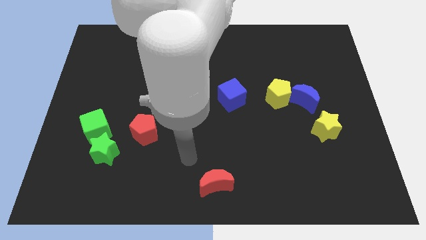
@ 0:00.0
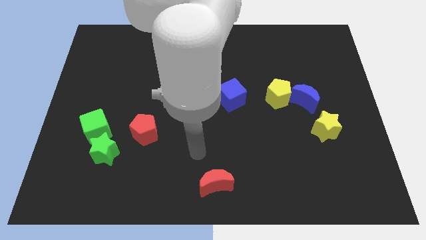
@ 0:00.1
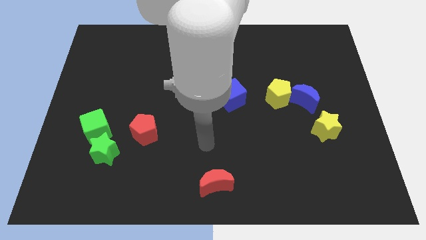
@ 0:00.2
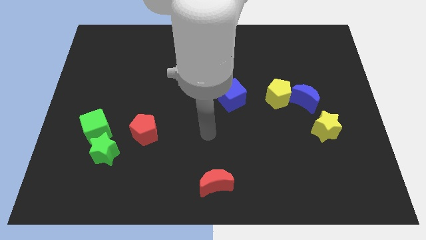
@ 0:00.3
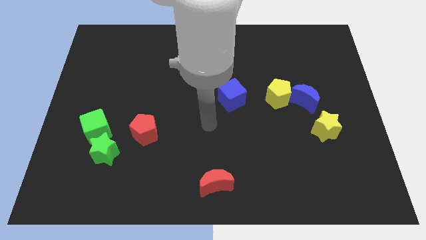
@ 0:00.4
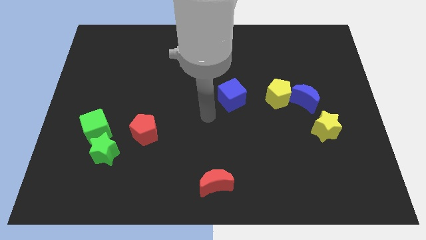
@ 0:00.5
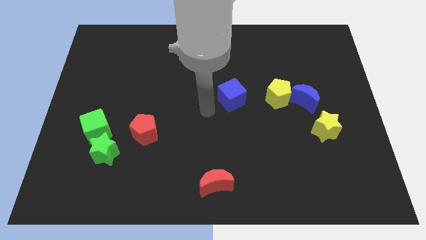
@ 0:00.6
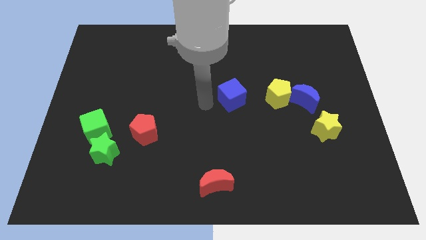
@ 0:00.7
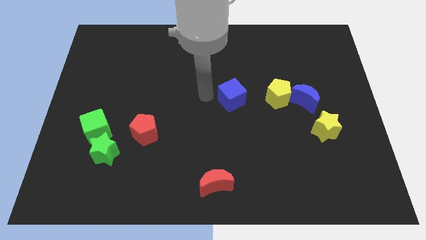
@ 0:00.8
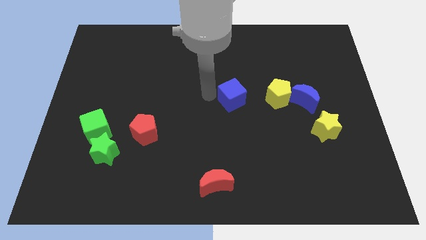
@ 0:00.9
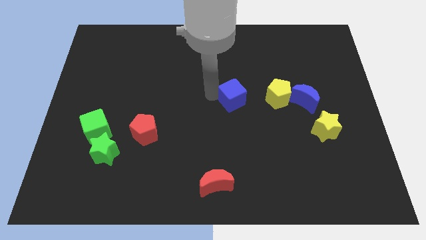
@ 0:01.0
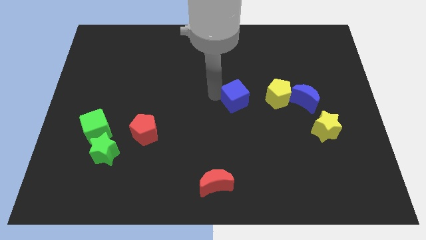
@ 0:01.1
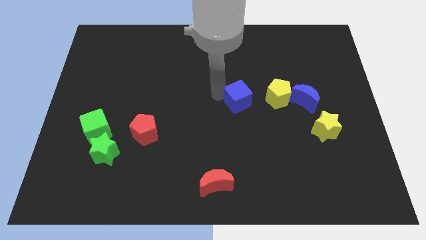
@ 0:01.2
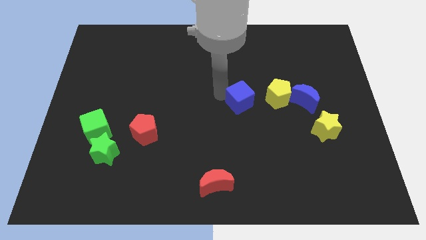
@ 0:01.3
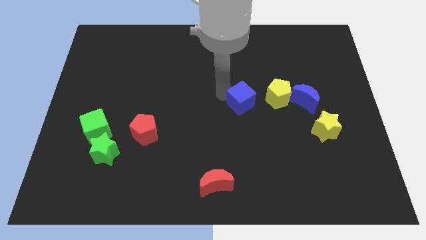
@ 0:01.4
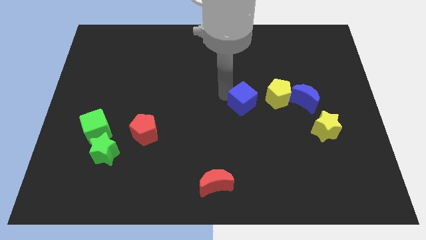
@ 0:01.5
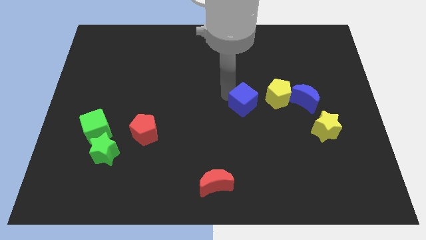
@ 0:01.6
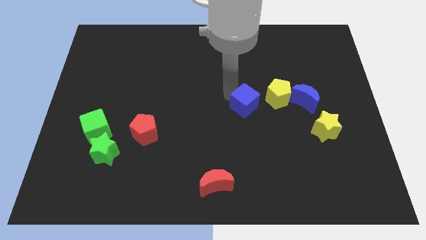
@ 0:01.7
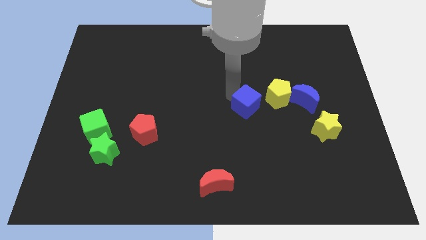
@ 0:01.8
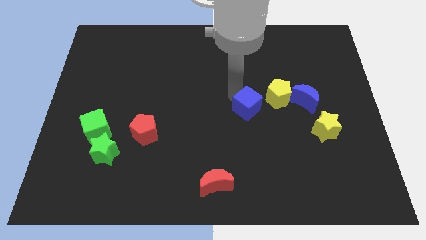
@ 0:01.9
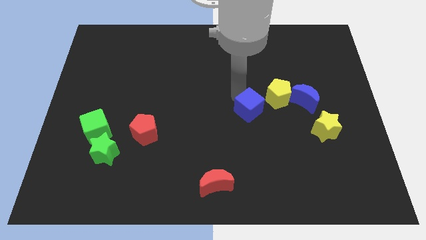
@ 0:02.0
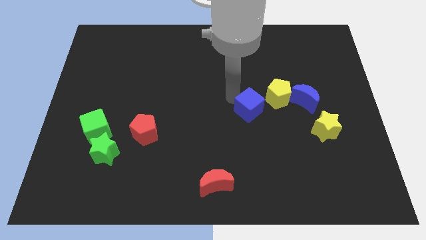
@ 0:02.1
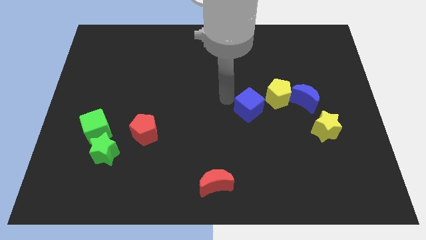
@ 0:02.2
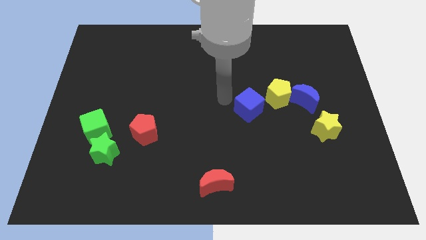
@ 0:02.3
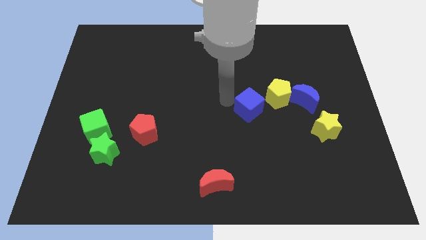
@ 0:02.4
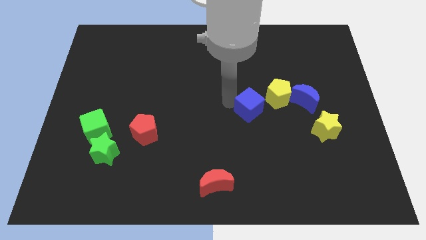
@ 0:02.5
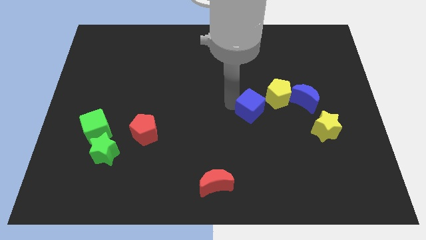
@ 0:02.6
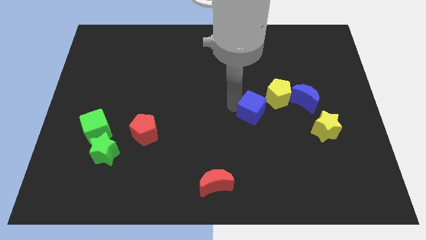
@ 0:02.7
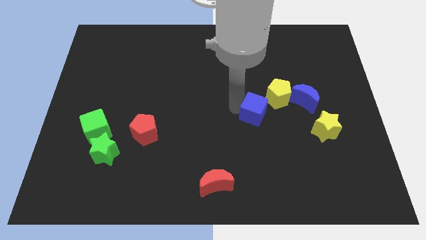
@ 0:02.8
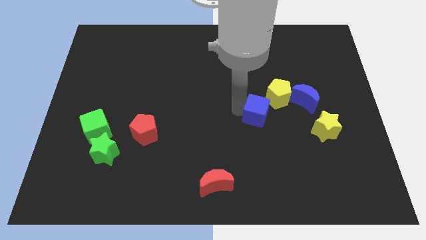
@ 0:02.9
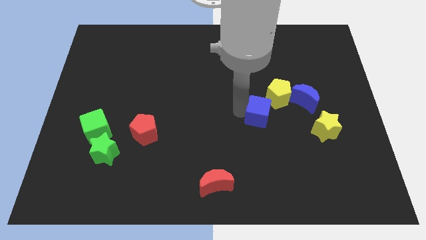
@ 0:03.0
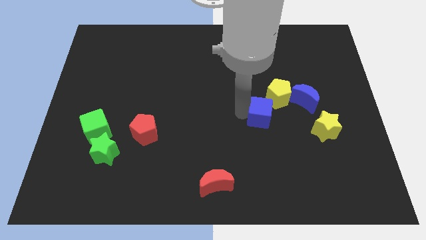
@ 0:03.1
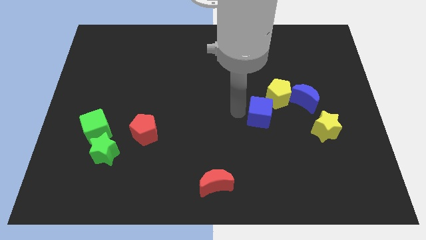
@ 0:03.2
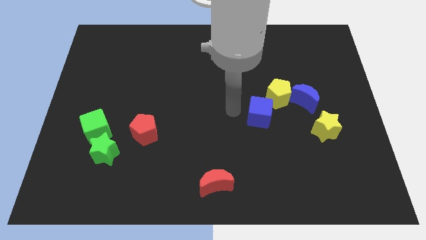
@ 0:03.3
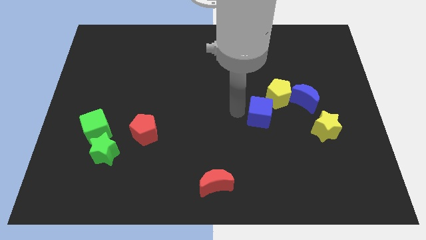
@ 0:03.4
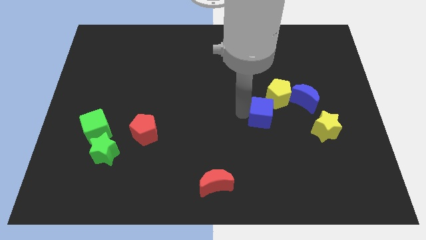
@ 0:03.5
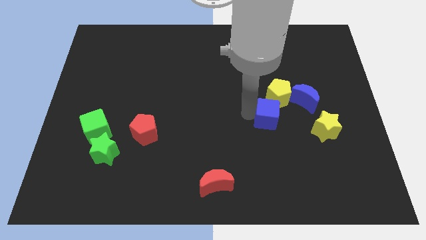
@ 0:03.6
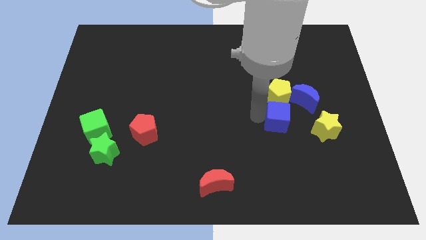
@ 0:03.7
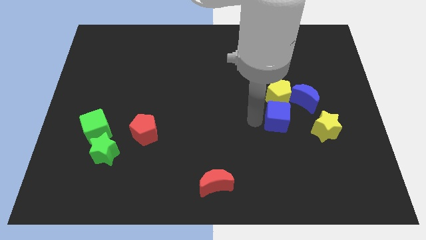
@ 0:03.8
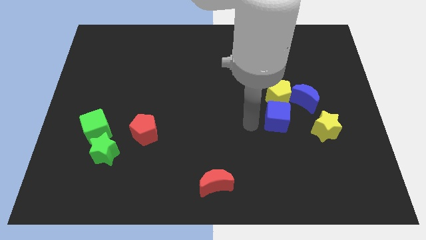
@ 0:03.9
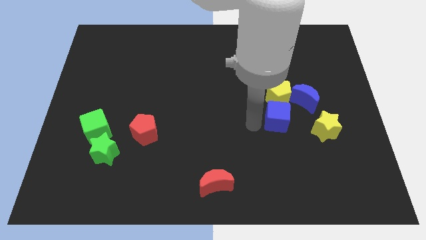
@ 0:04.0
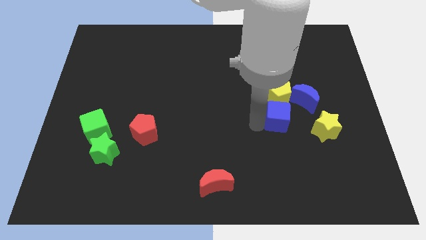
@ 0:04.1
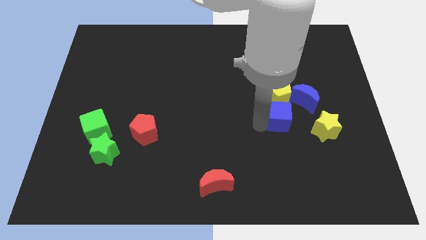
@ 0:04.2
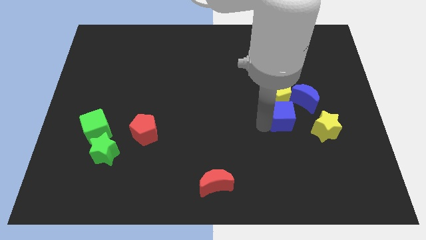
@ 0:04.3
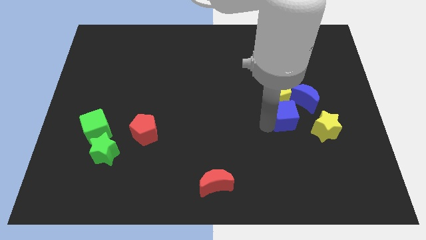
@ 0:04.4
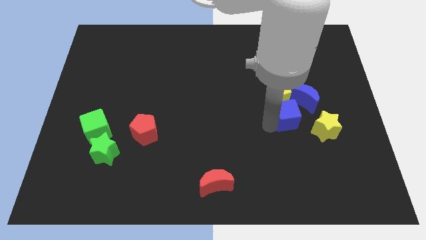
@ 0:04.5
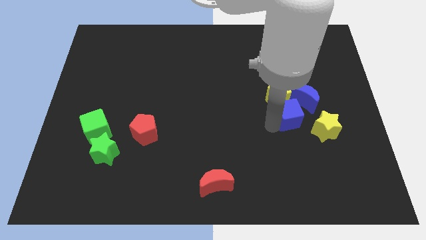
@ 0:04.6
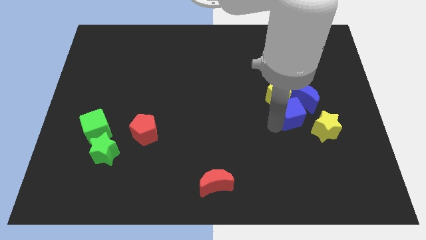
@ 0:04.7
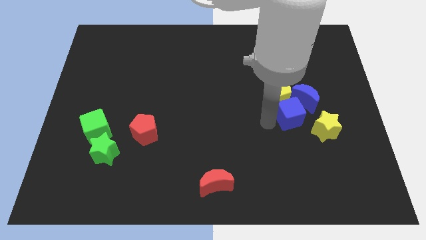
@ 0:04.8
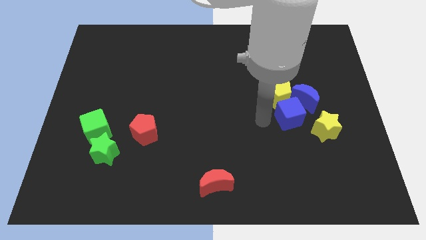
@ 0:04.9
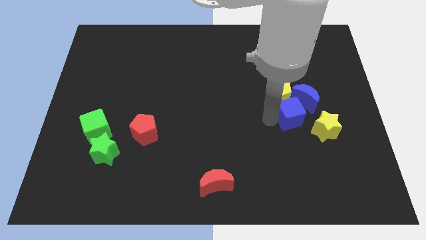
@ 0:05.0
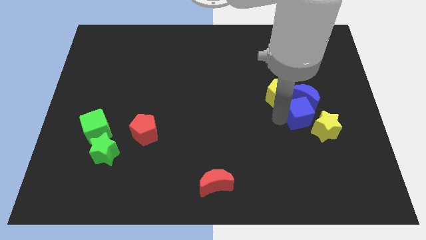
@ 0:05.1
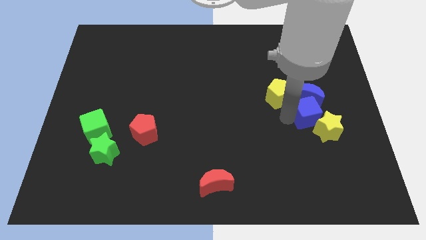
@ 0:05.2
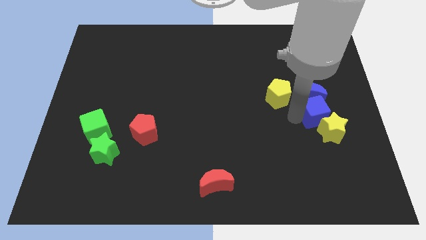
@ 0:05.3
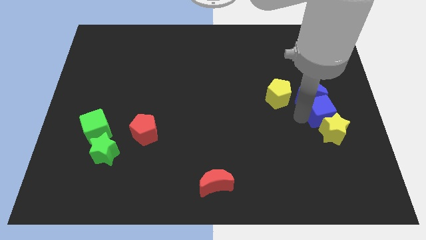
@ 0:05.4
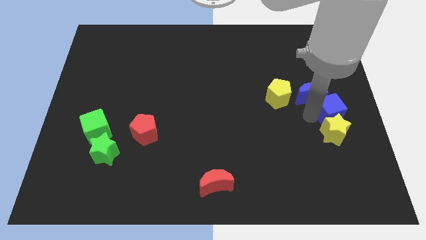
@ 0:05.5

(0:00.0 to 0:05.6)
slide the blue cube to the right side of the board

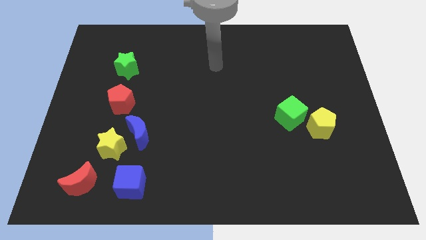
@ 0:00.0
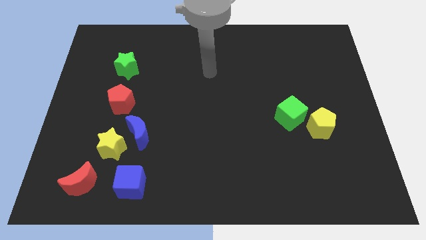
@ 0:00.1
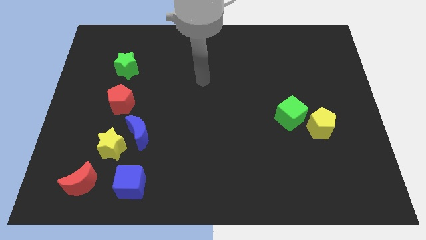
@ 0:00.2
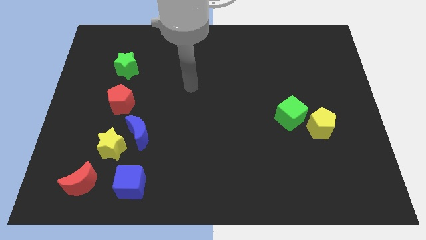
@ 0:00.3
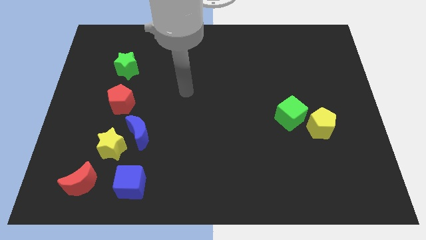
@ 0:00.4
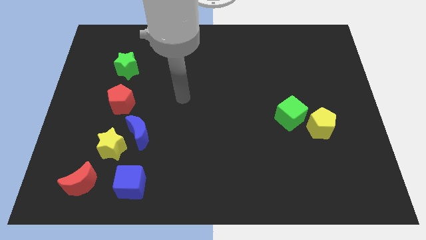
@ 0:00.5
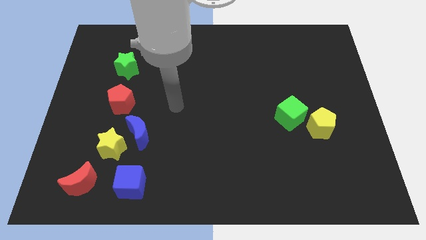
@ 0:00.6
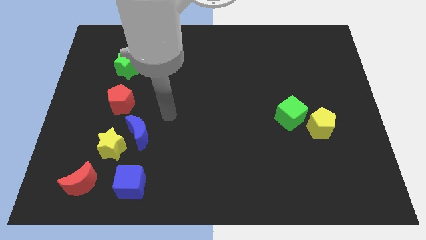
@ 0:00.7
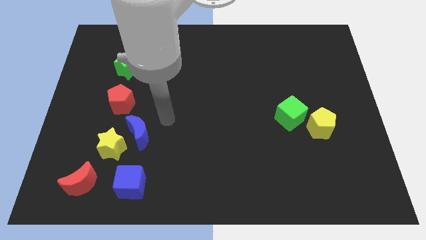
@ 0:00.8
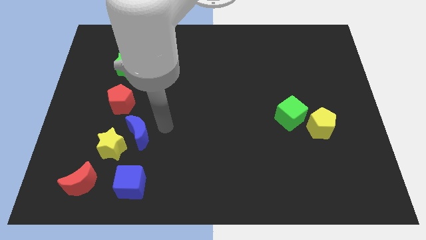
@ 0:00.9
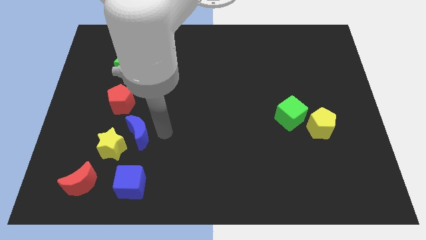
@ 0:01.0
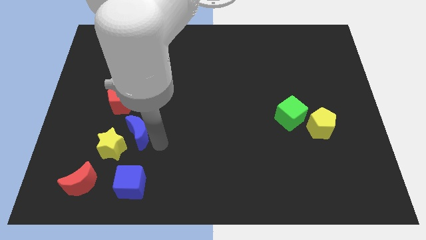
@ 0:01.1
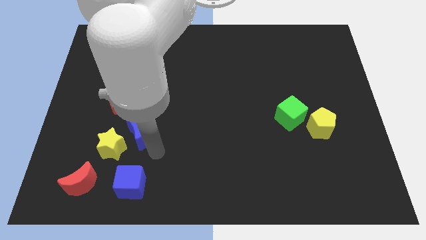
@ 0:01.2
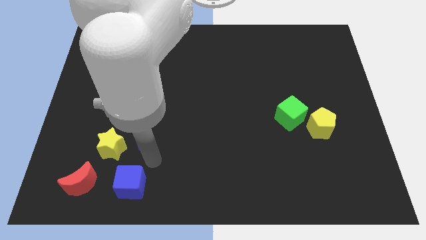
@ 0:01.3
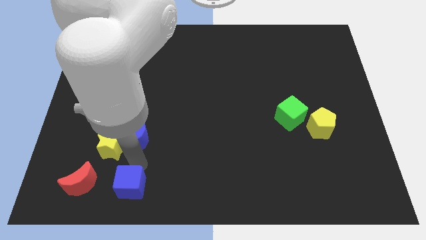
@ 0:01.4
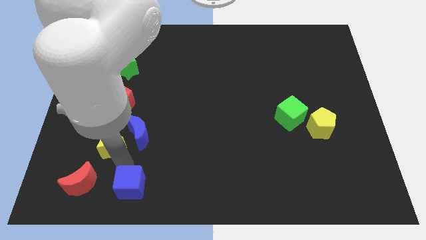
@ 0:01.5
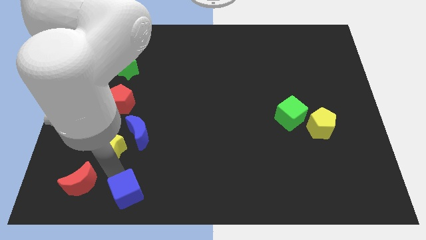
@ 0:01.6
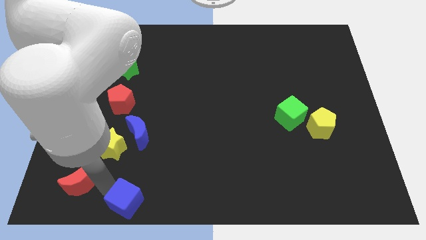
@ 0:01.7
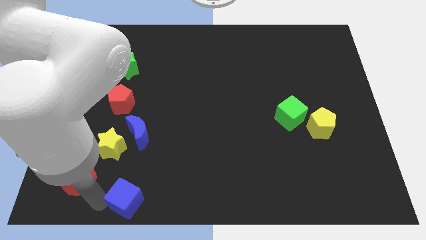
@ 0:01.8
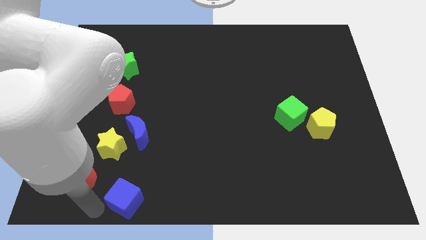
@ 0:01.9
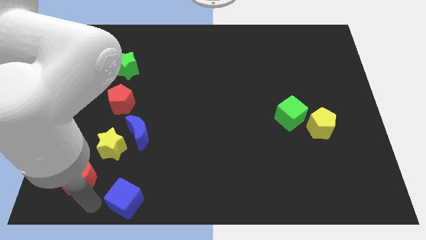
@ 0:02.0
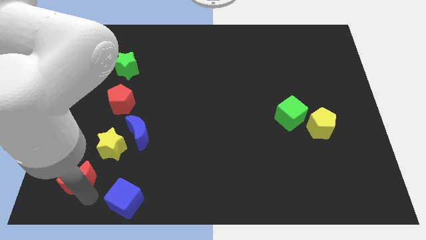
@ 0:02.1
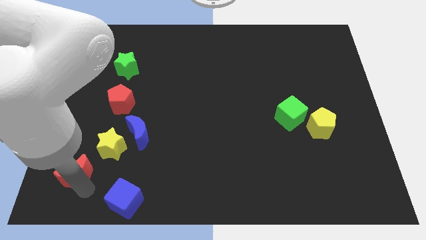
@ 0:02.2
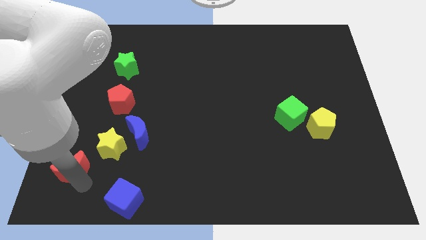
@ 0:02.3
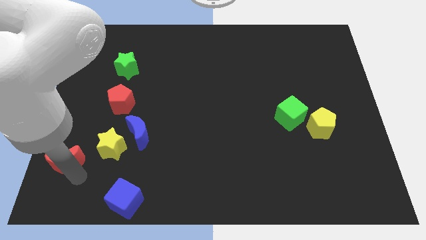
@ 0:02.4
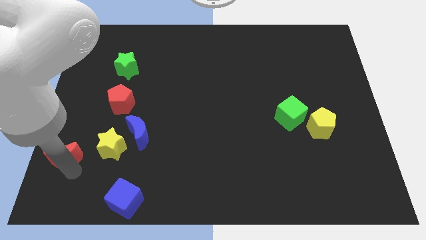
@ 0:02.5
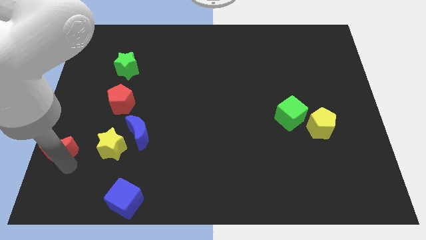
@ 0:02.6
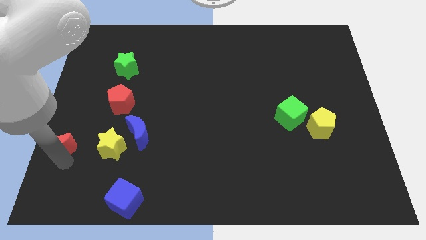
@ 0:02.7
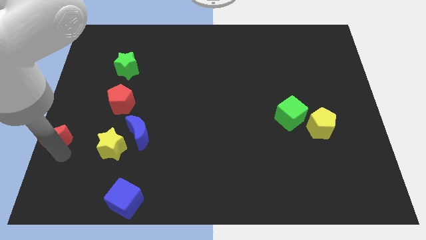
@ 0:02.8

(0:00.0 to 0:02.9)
move the red moon to the left side
